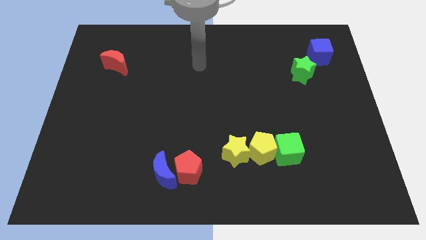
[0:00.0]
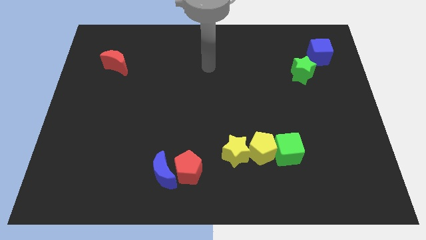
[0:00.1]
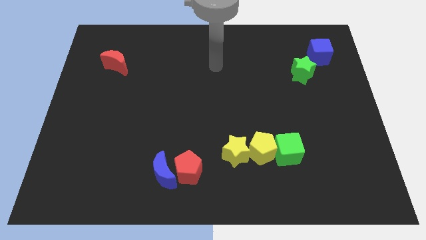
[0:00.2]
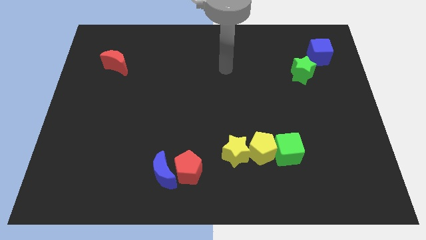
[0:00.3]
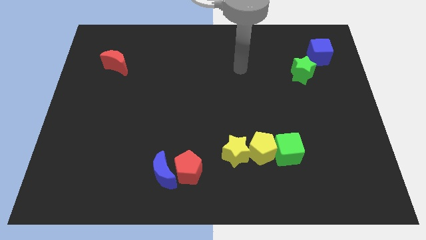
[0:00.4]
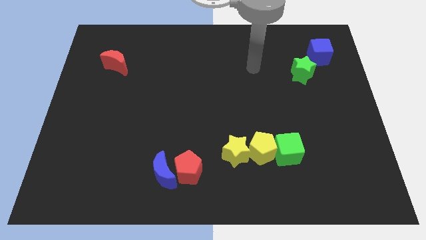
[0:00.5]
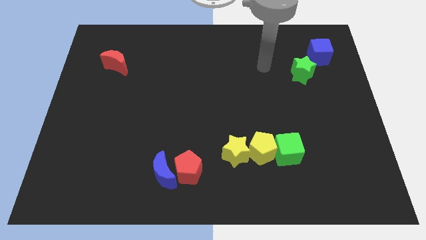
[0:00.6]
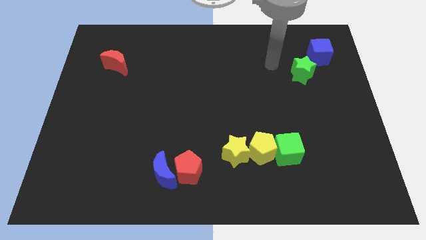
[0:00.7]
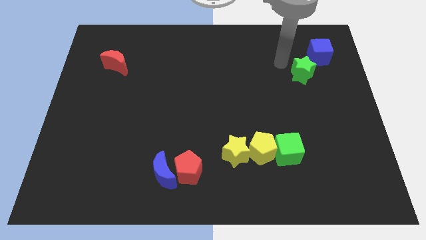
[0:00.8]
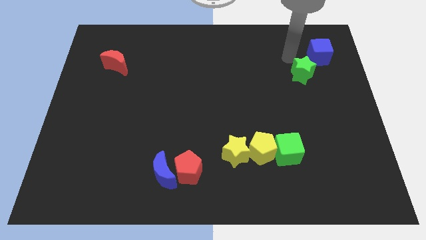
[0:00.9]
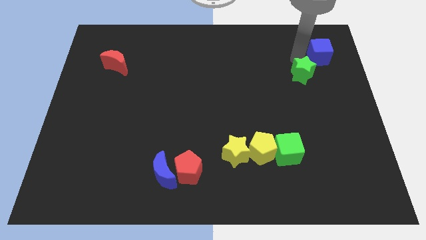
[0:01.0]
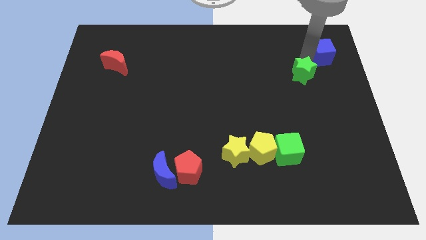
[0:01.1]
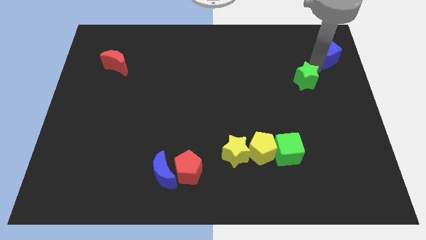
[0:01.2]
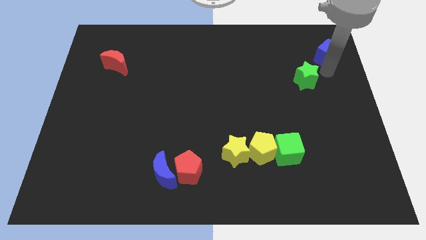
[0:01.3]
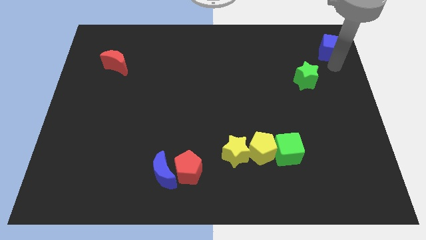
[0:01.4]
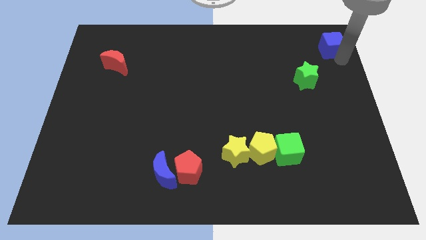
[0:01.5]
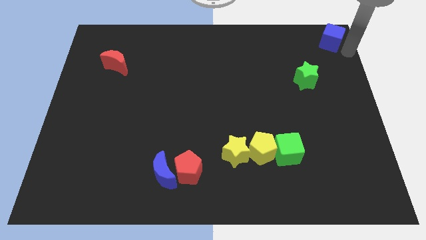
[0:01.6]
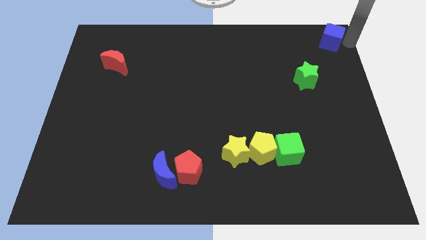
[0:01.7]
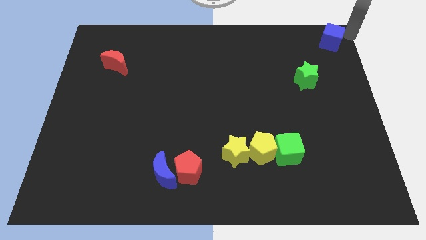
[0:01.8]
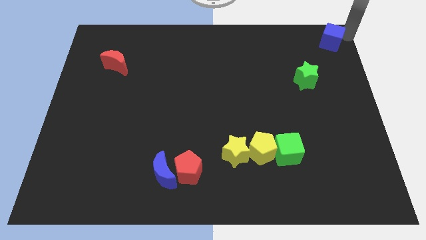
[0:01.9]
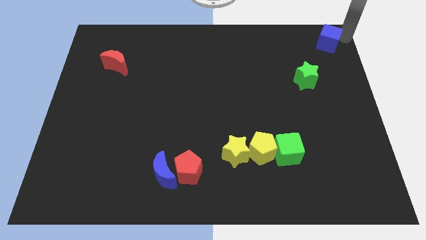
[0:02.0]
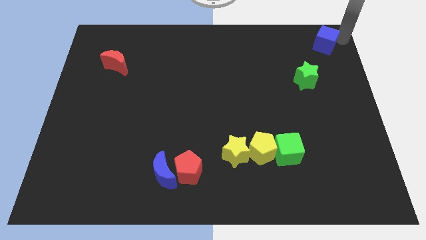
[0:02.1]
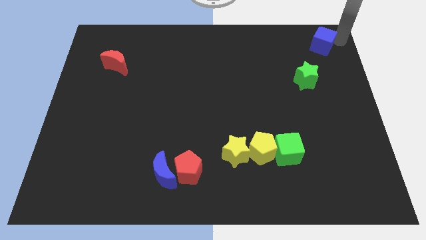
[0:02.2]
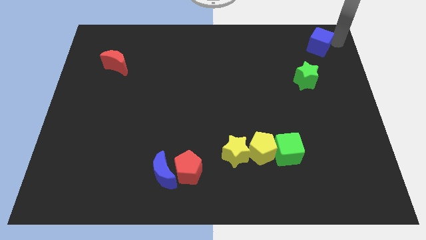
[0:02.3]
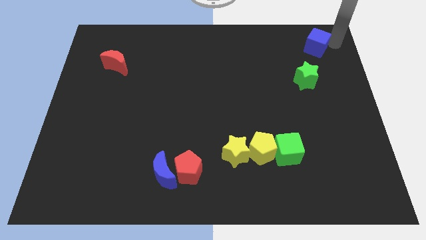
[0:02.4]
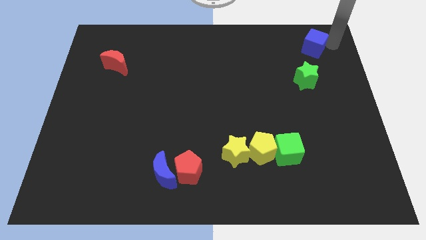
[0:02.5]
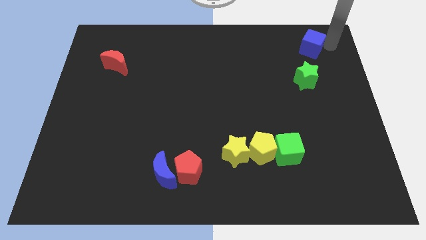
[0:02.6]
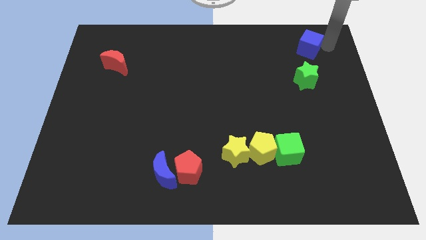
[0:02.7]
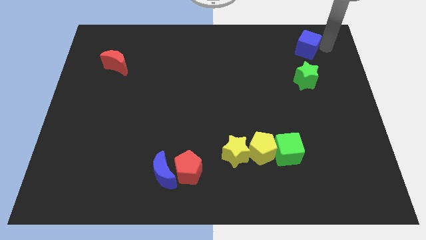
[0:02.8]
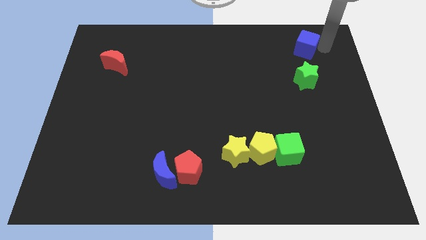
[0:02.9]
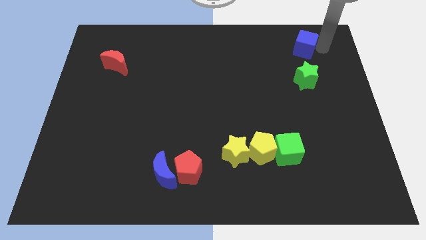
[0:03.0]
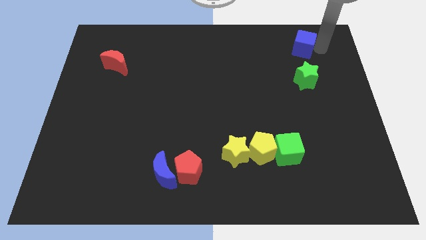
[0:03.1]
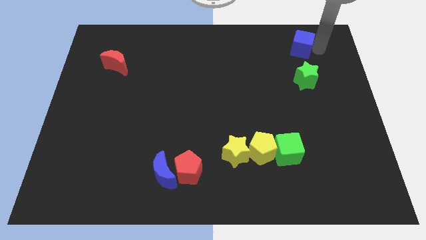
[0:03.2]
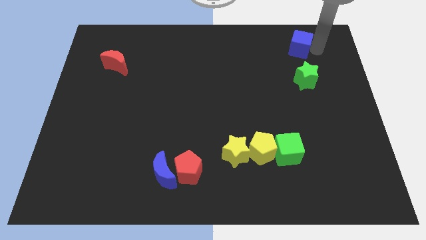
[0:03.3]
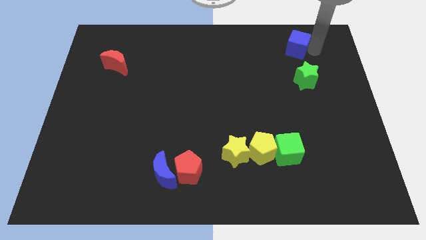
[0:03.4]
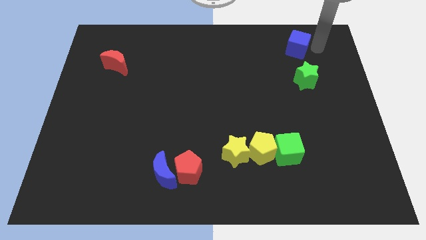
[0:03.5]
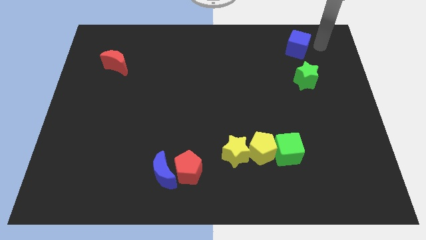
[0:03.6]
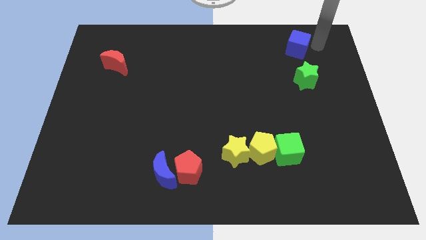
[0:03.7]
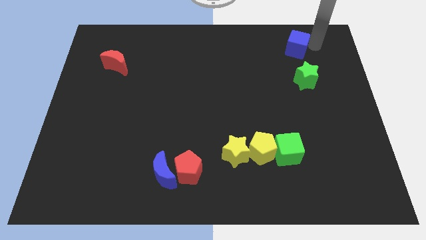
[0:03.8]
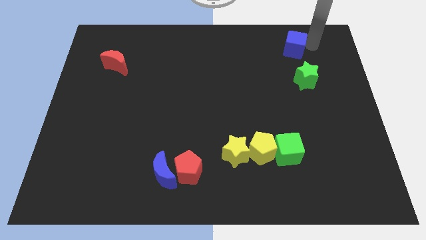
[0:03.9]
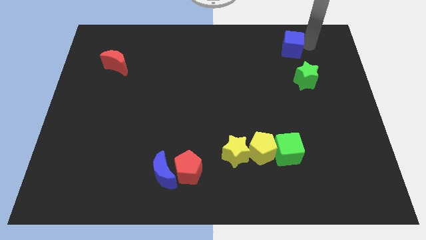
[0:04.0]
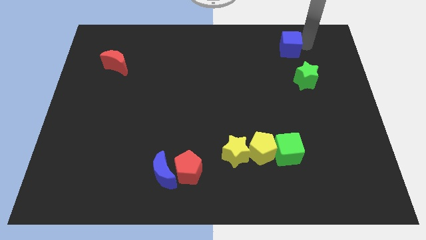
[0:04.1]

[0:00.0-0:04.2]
slightly move the blue cube left

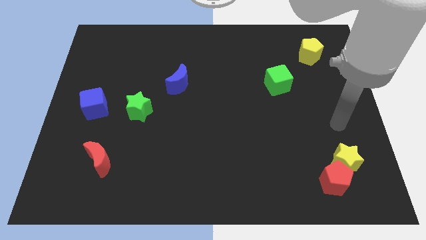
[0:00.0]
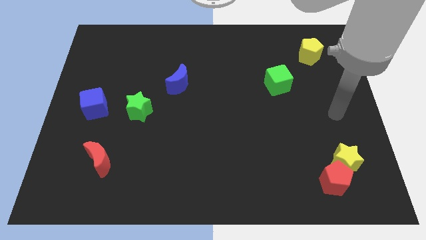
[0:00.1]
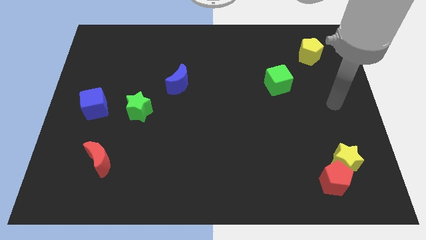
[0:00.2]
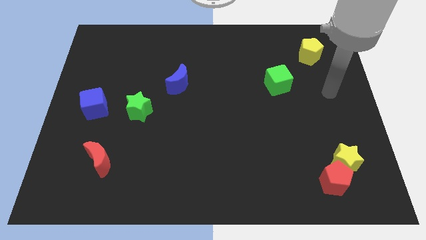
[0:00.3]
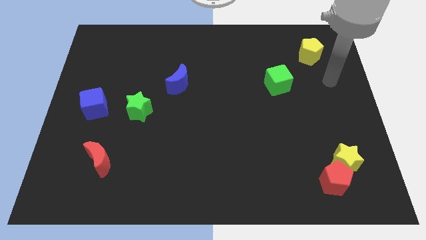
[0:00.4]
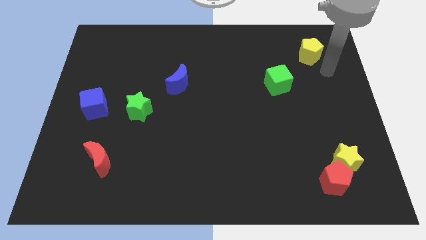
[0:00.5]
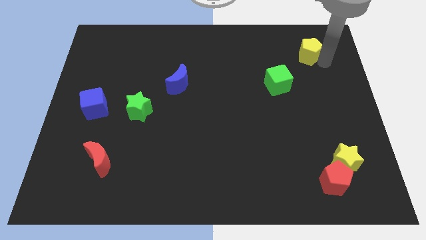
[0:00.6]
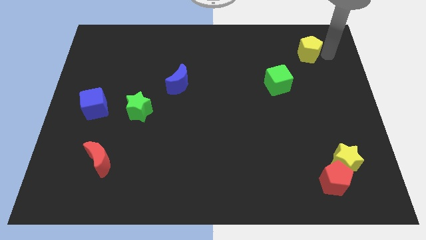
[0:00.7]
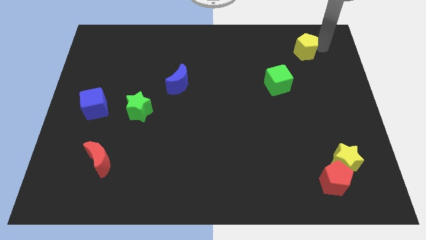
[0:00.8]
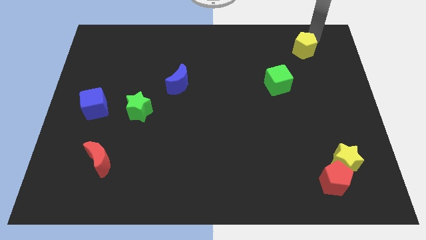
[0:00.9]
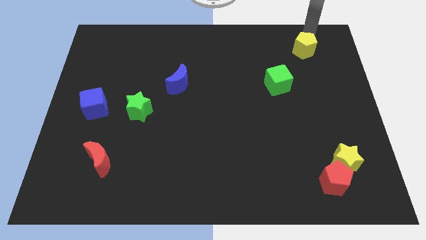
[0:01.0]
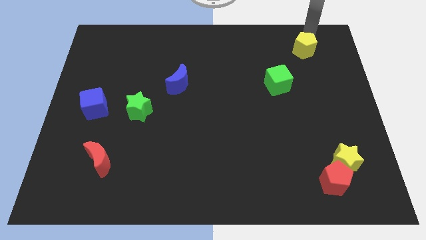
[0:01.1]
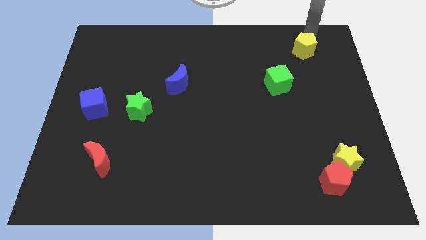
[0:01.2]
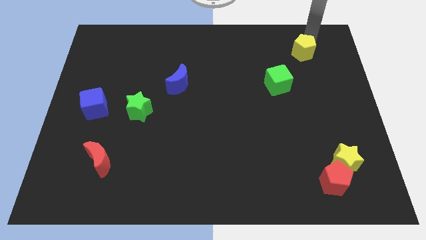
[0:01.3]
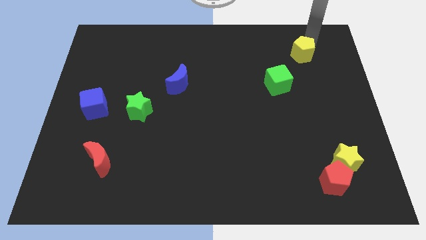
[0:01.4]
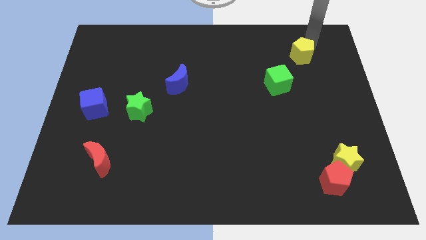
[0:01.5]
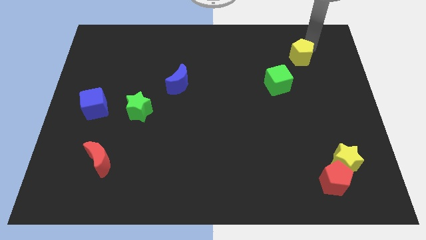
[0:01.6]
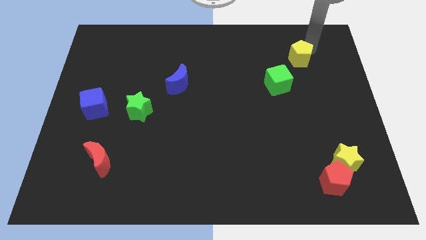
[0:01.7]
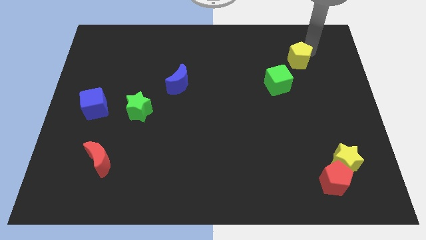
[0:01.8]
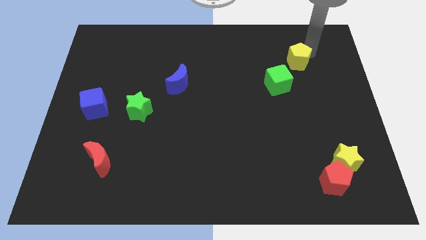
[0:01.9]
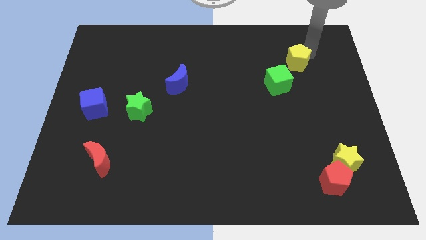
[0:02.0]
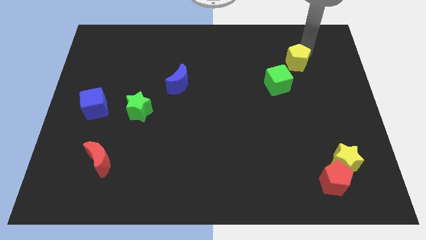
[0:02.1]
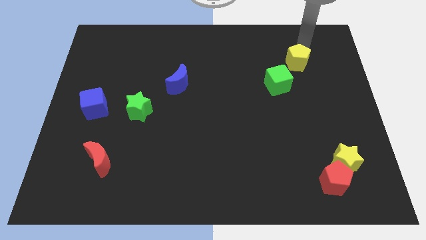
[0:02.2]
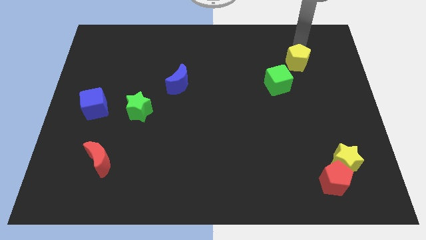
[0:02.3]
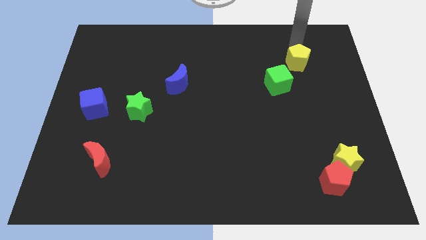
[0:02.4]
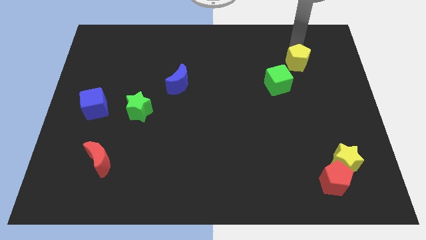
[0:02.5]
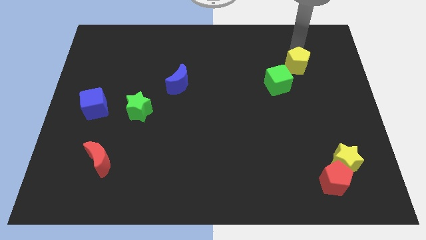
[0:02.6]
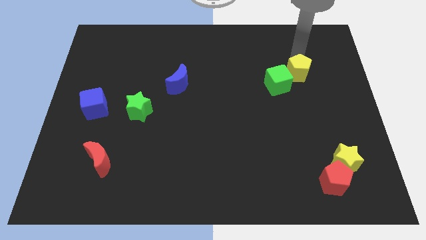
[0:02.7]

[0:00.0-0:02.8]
slightly slide the yellow pentagon down and then left

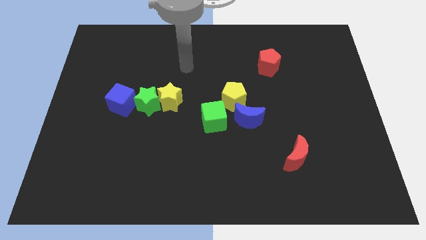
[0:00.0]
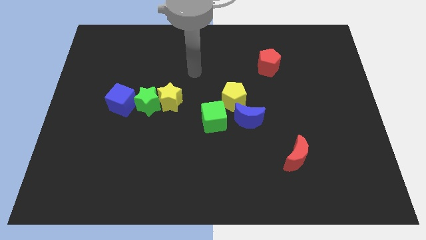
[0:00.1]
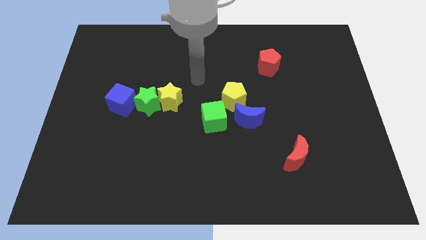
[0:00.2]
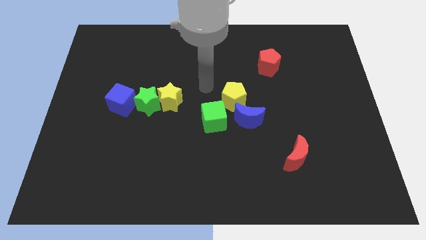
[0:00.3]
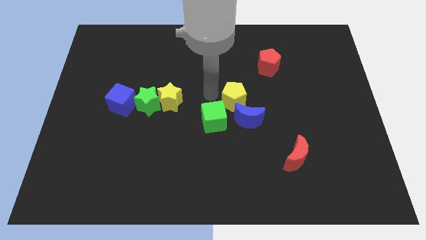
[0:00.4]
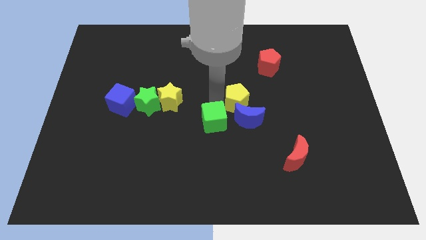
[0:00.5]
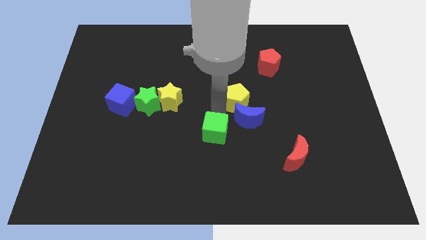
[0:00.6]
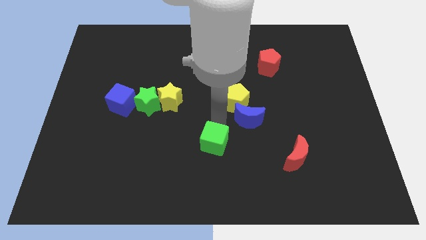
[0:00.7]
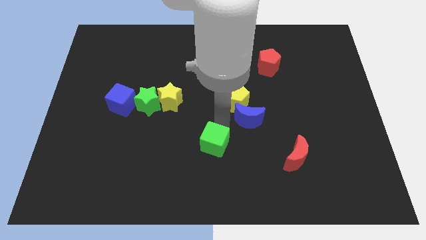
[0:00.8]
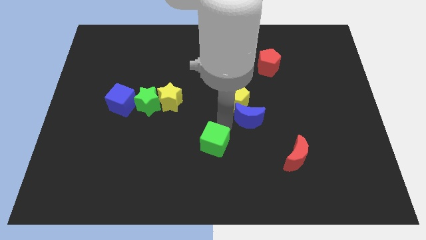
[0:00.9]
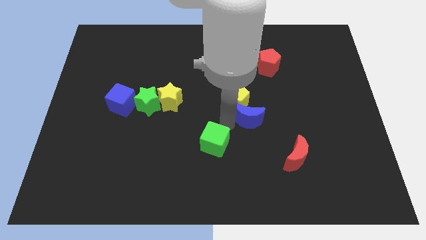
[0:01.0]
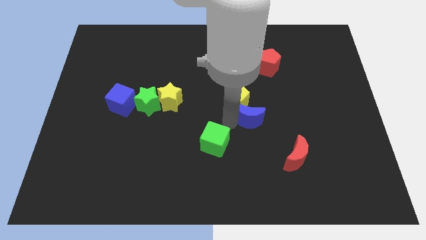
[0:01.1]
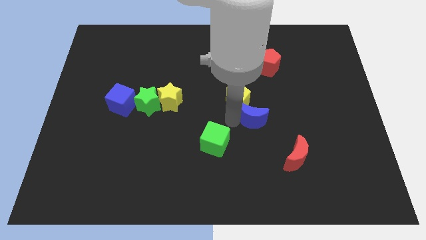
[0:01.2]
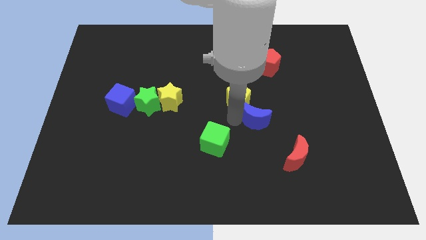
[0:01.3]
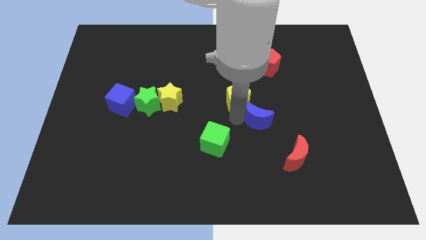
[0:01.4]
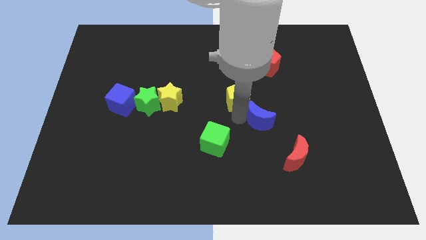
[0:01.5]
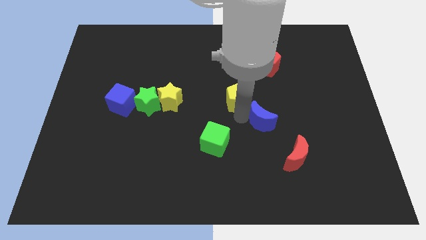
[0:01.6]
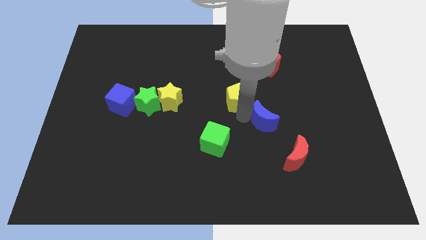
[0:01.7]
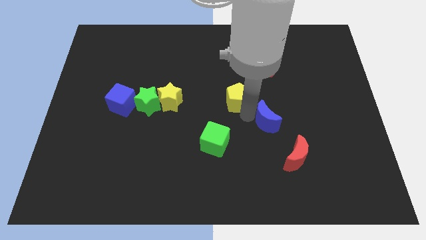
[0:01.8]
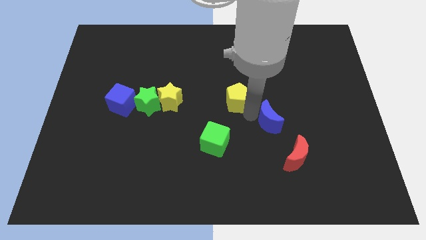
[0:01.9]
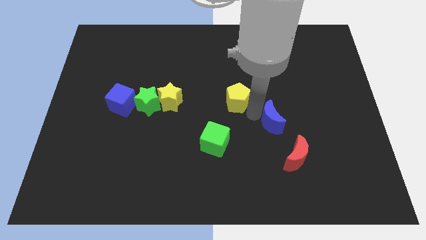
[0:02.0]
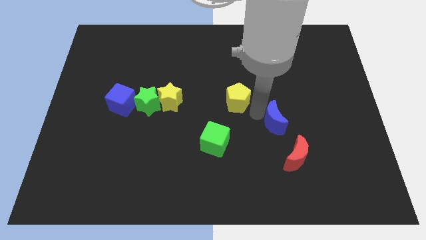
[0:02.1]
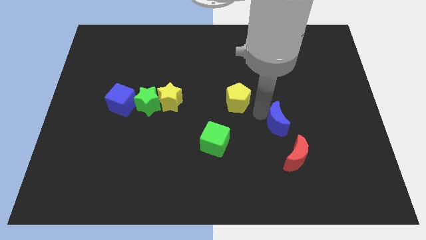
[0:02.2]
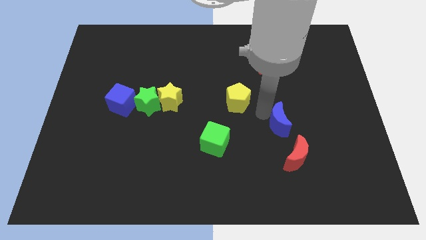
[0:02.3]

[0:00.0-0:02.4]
slightly move the blue moon right
